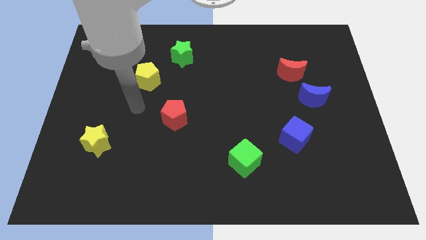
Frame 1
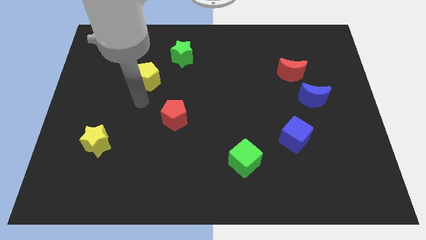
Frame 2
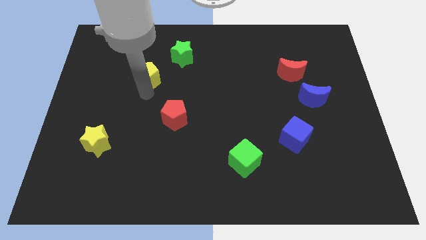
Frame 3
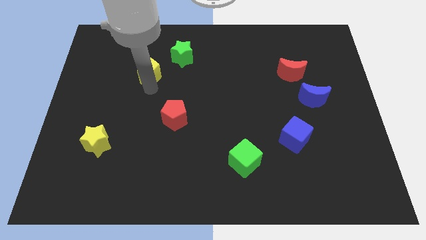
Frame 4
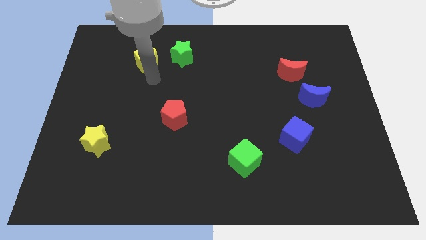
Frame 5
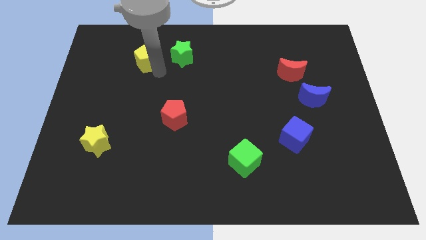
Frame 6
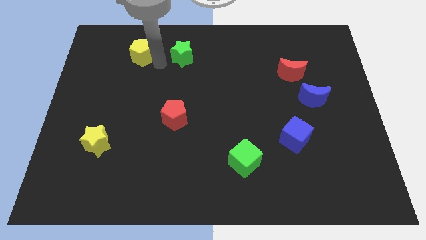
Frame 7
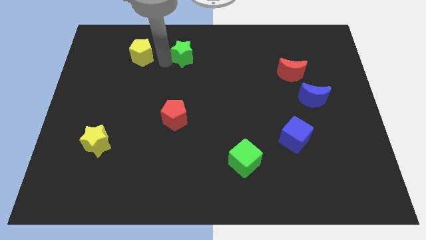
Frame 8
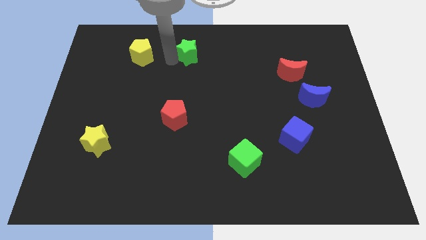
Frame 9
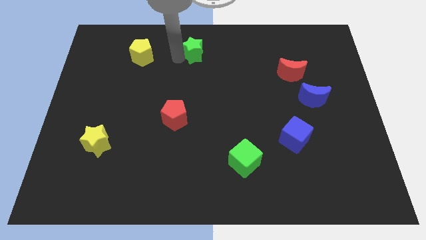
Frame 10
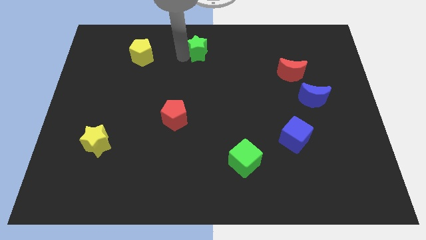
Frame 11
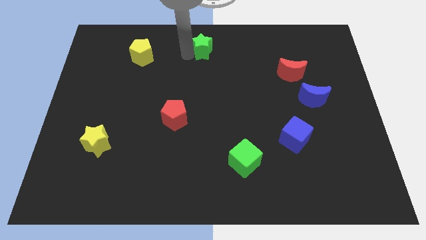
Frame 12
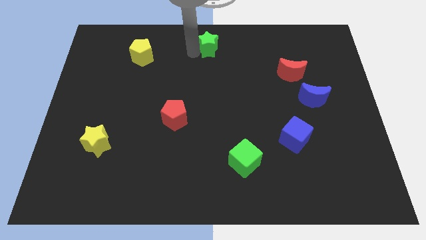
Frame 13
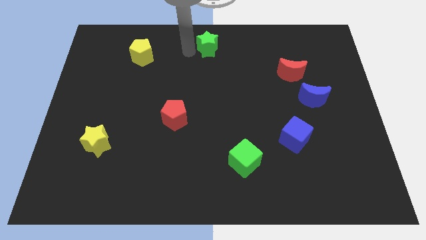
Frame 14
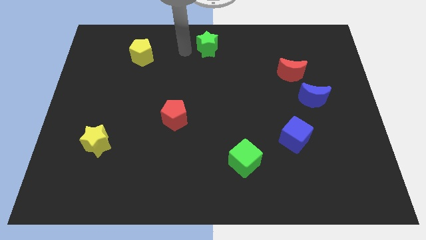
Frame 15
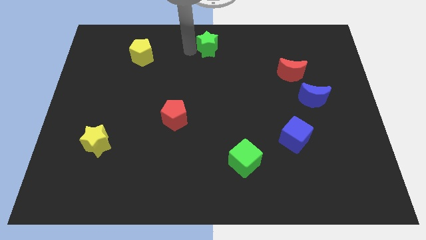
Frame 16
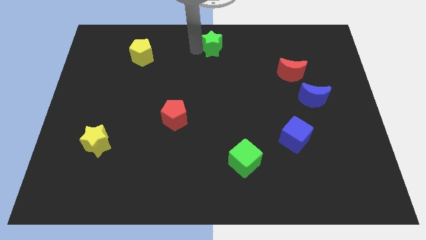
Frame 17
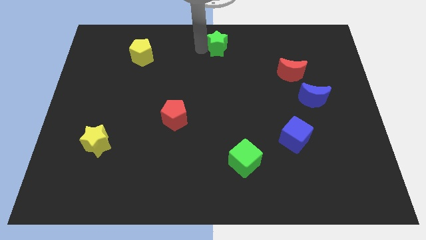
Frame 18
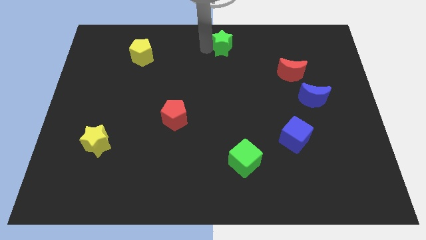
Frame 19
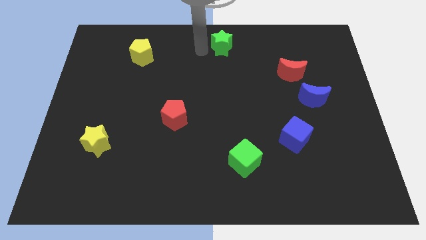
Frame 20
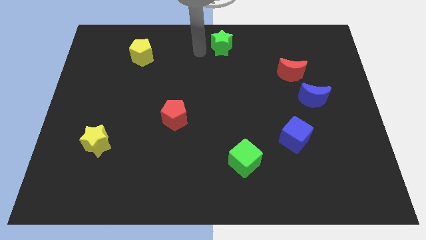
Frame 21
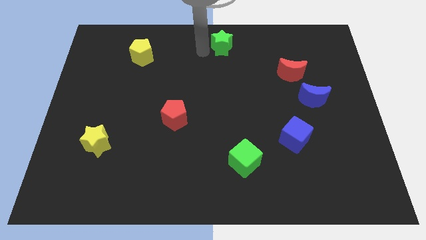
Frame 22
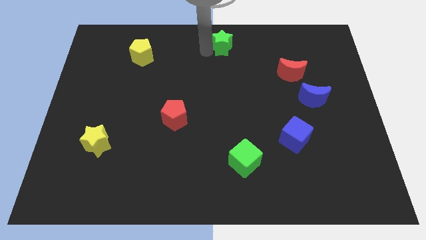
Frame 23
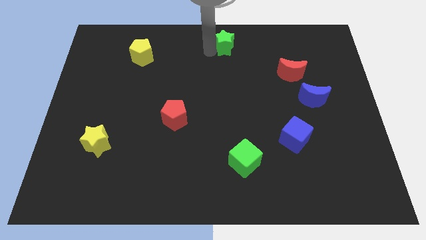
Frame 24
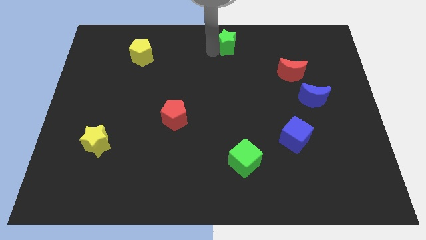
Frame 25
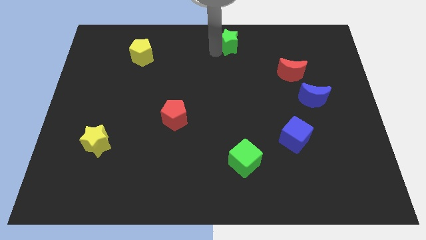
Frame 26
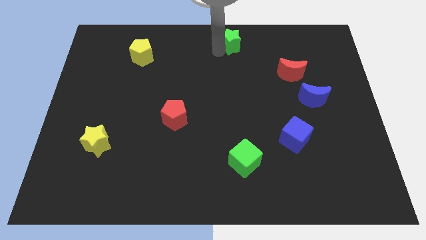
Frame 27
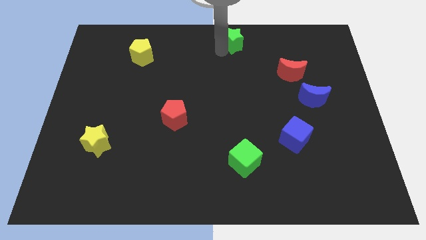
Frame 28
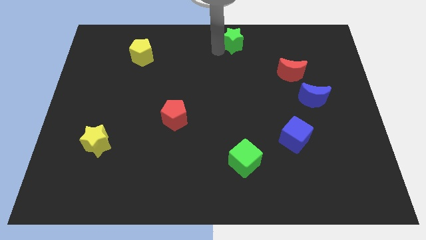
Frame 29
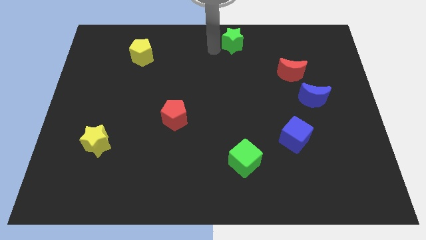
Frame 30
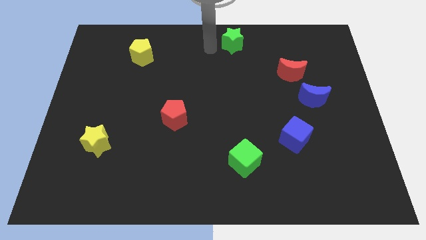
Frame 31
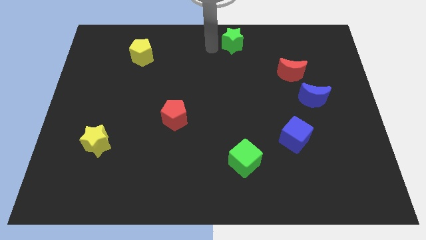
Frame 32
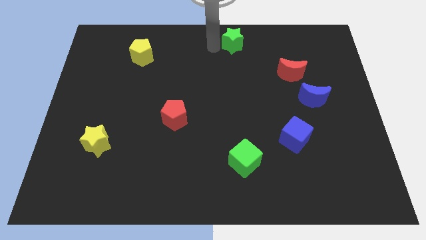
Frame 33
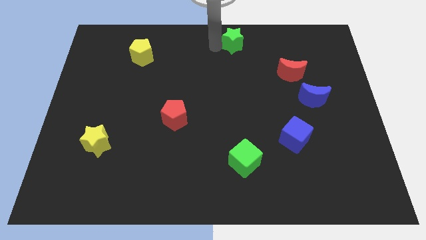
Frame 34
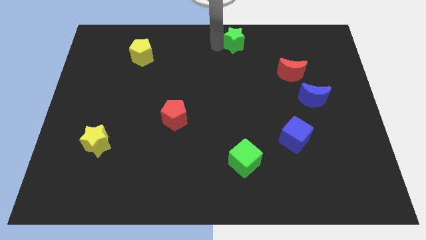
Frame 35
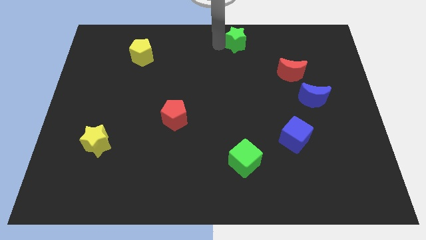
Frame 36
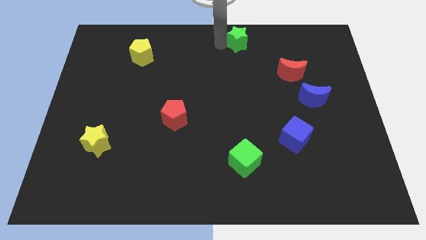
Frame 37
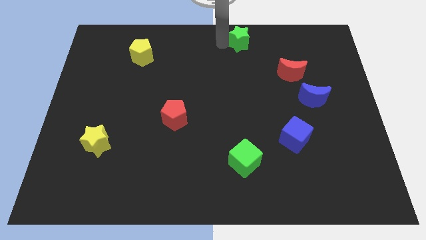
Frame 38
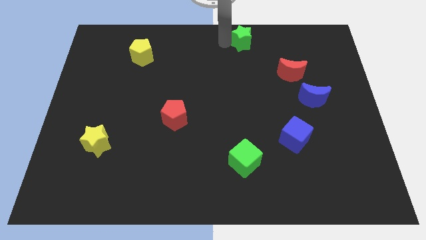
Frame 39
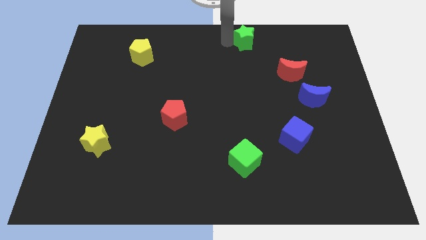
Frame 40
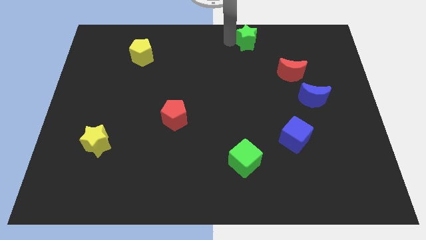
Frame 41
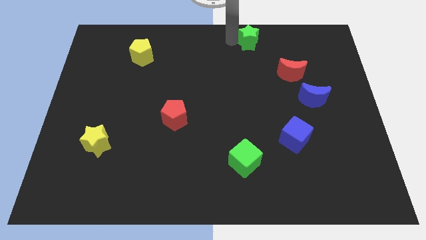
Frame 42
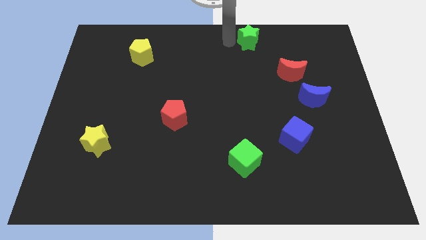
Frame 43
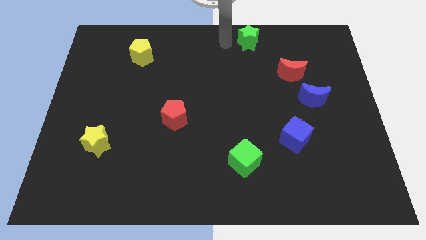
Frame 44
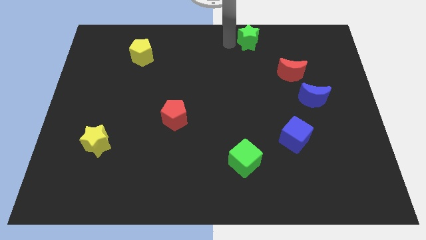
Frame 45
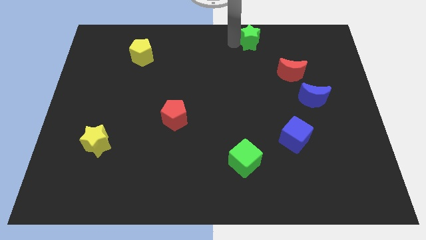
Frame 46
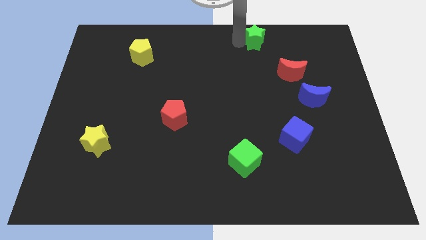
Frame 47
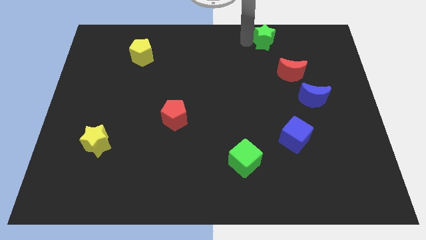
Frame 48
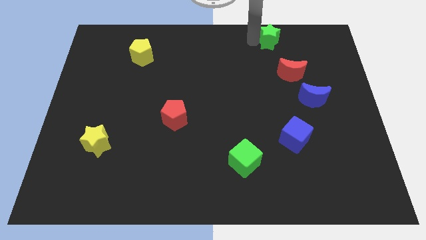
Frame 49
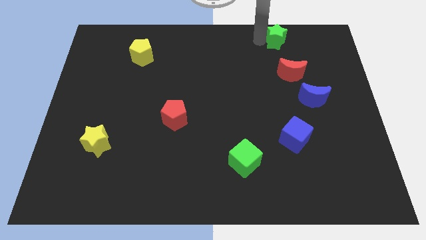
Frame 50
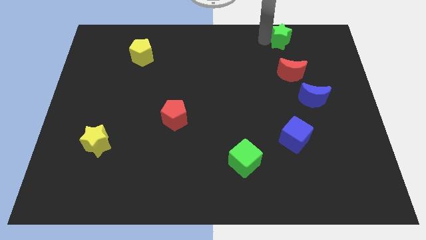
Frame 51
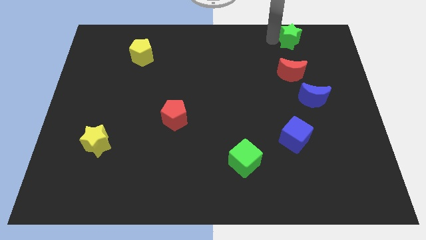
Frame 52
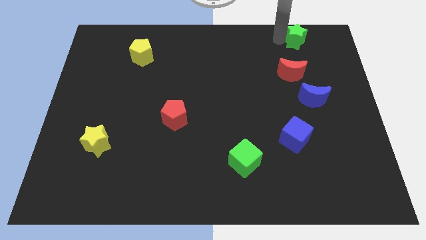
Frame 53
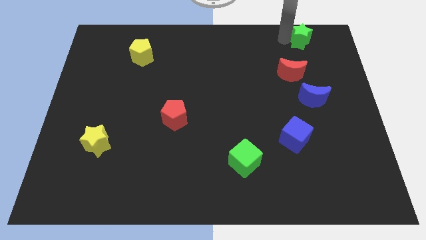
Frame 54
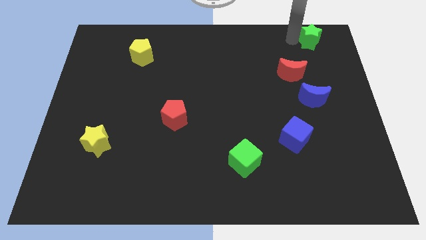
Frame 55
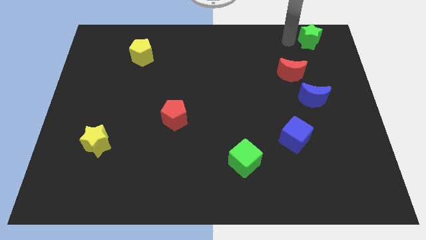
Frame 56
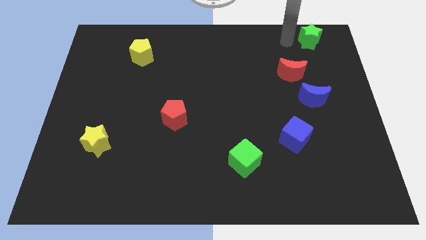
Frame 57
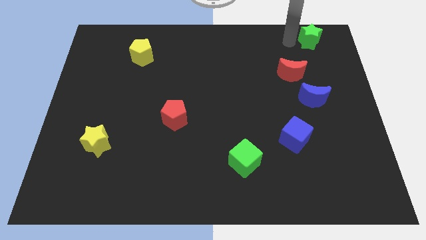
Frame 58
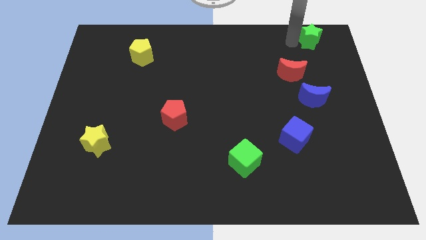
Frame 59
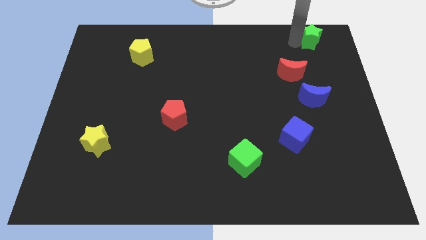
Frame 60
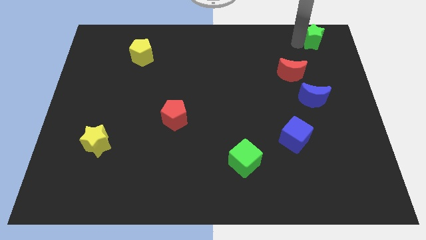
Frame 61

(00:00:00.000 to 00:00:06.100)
slide the green star to the top right

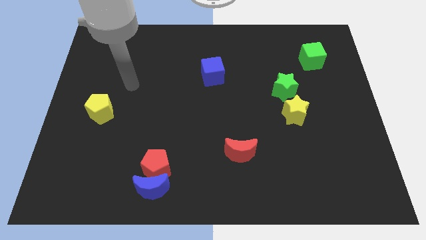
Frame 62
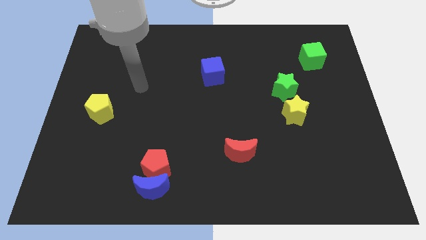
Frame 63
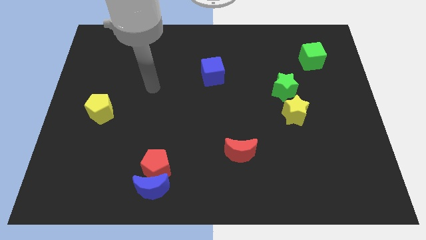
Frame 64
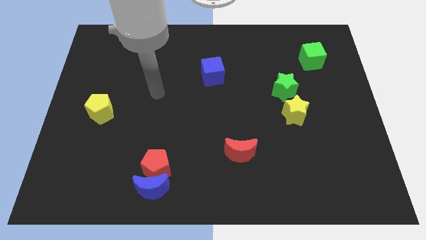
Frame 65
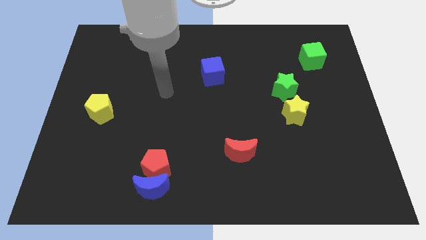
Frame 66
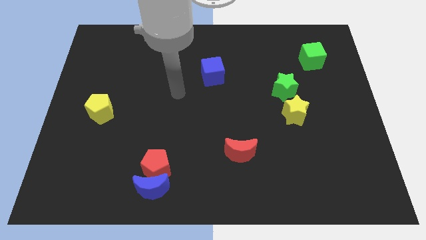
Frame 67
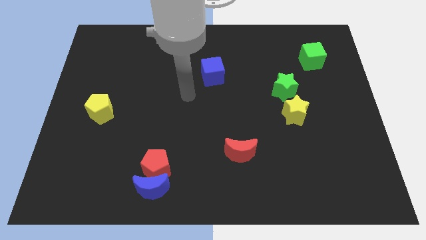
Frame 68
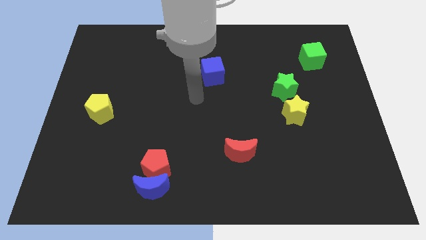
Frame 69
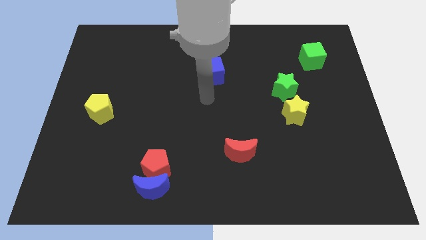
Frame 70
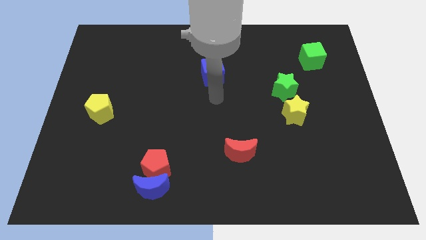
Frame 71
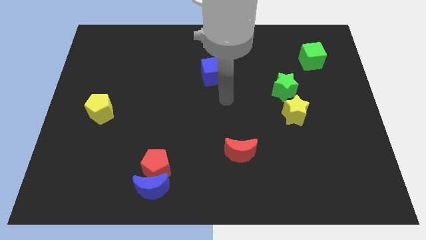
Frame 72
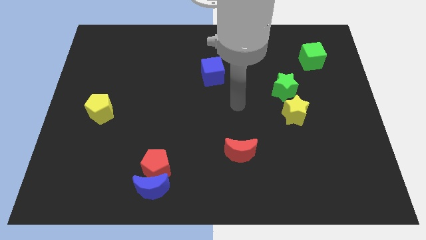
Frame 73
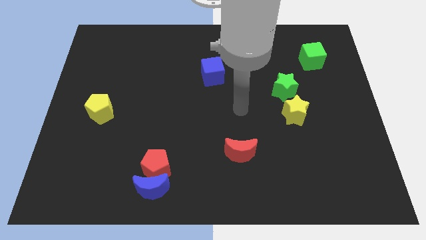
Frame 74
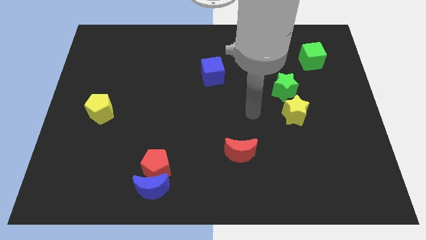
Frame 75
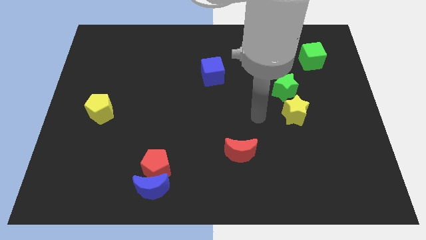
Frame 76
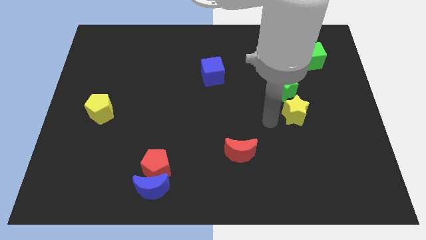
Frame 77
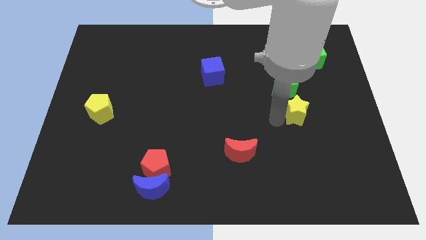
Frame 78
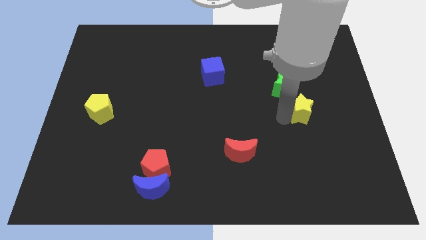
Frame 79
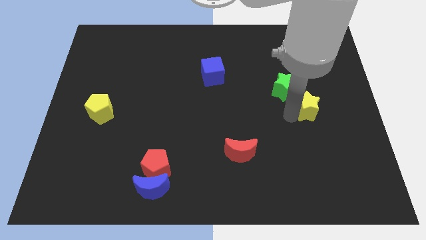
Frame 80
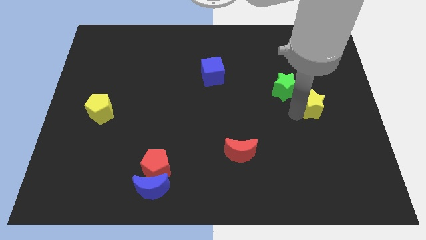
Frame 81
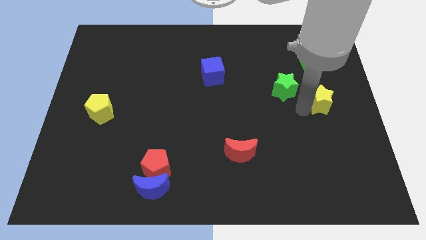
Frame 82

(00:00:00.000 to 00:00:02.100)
put the yellow star to the right side
